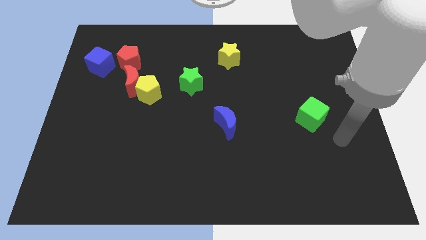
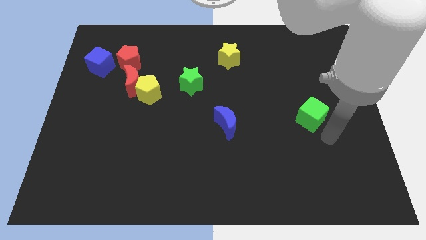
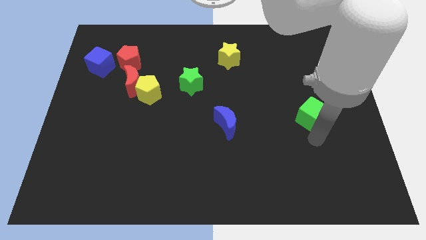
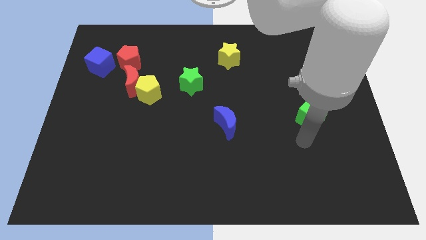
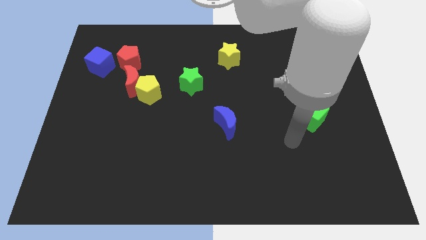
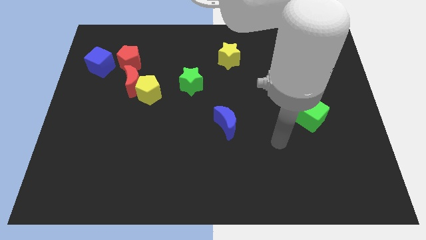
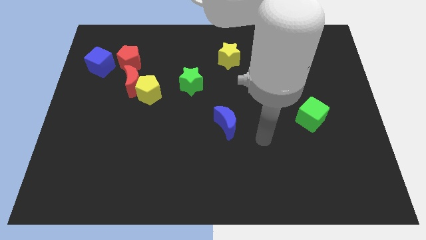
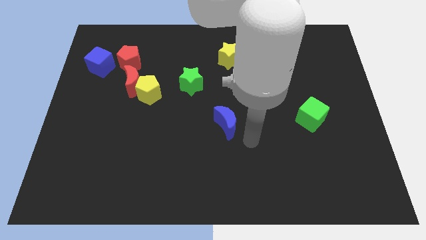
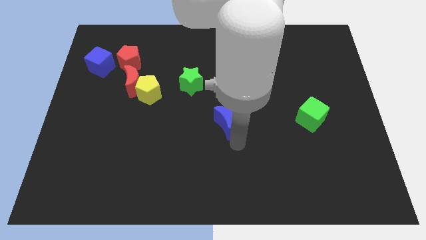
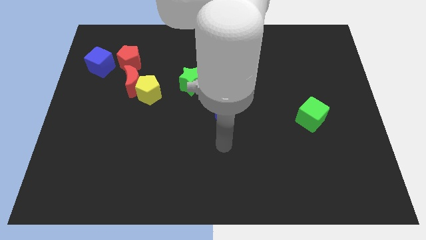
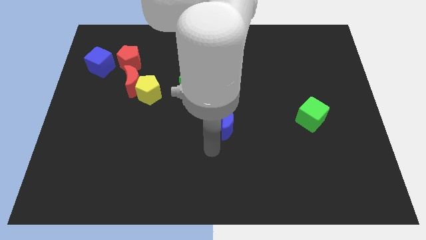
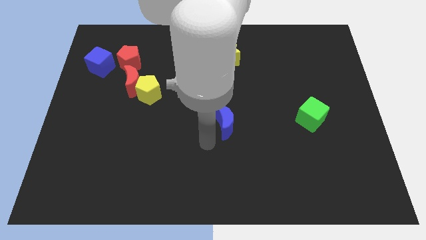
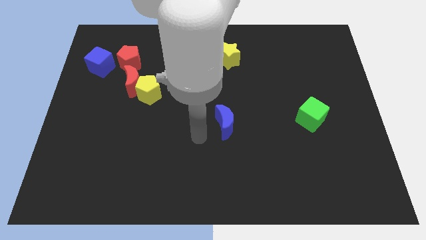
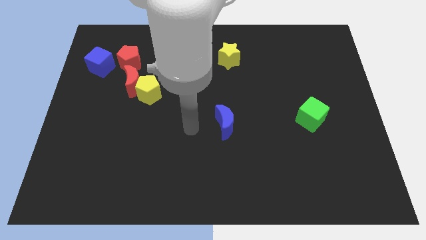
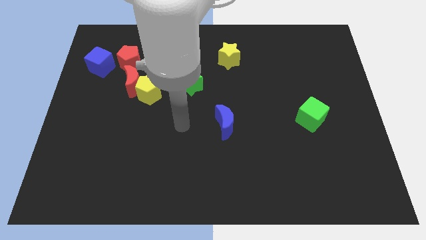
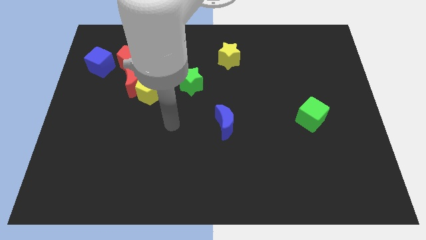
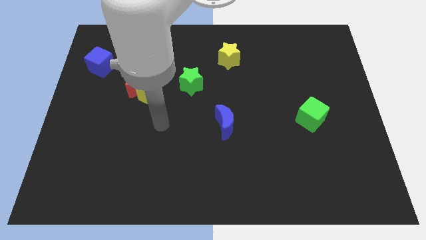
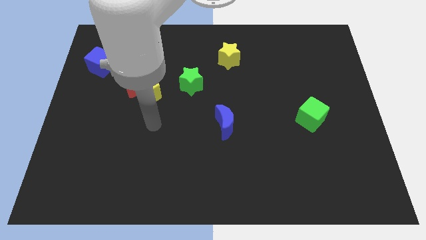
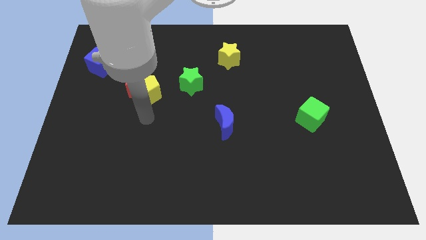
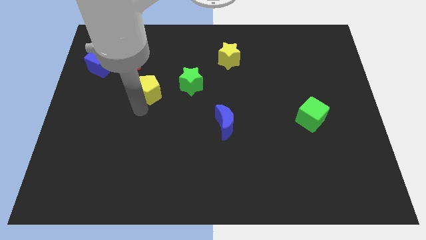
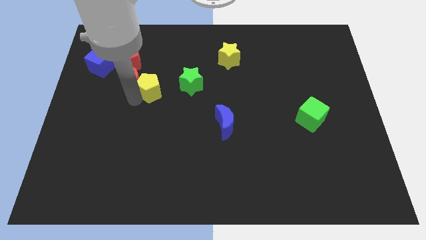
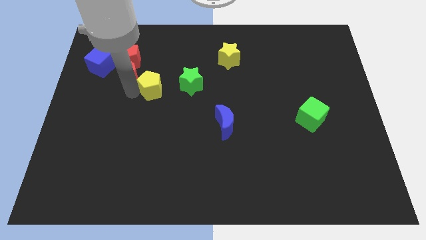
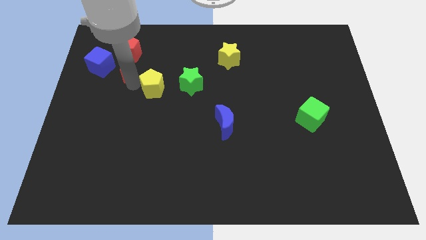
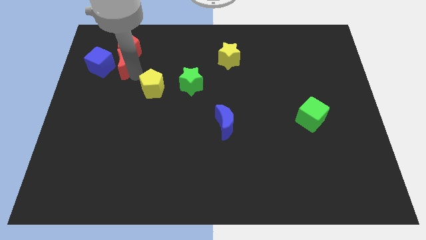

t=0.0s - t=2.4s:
separate the yellow pentagon from the red moon

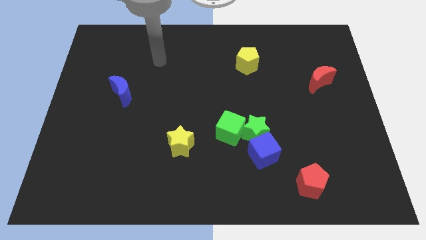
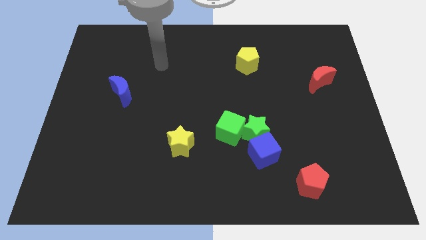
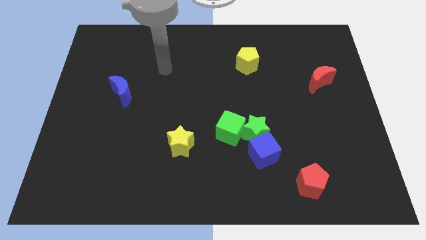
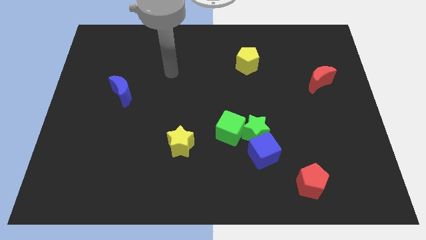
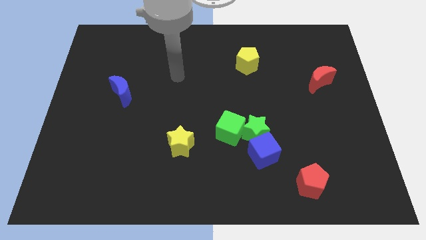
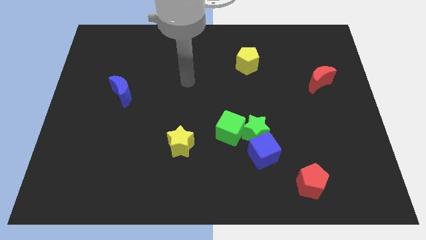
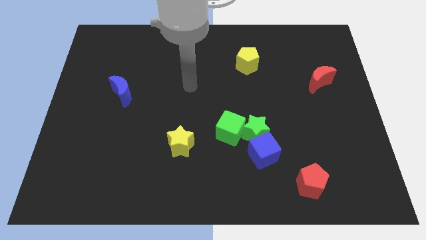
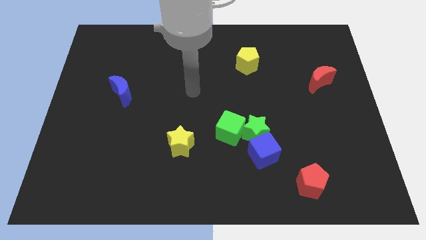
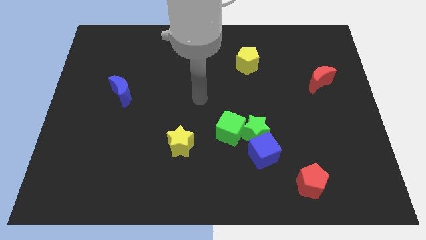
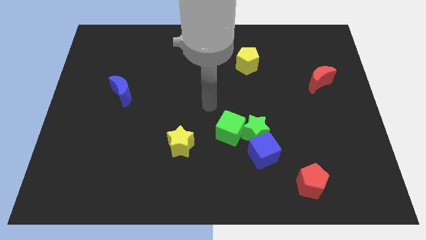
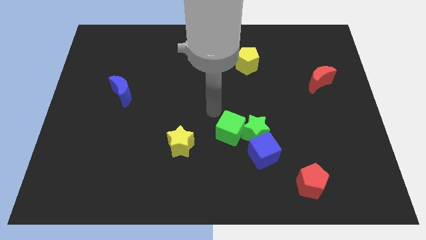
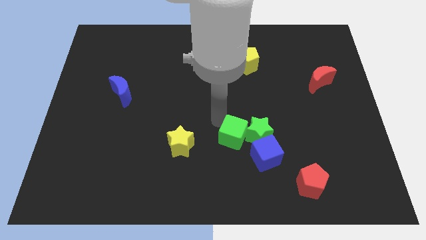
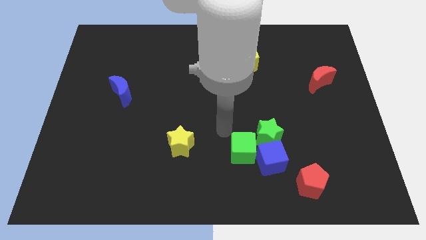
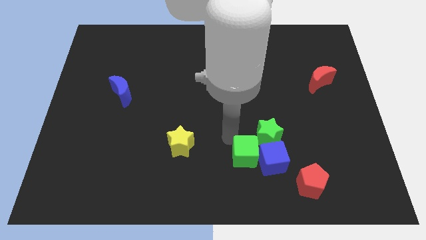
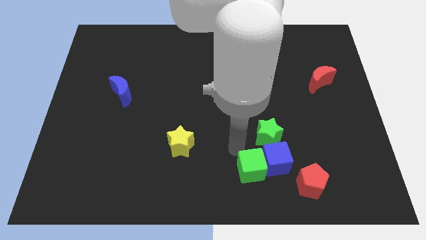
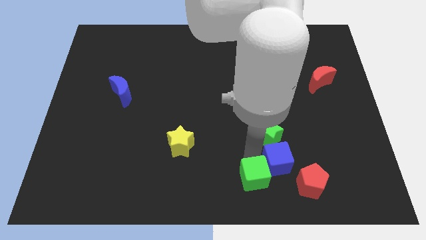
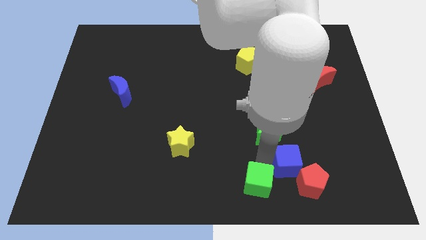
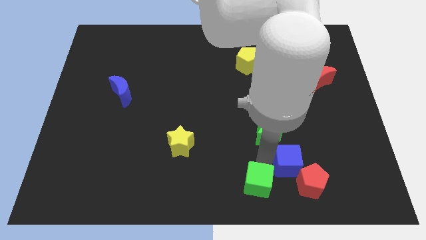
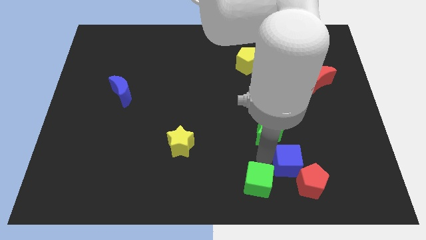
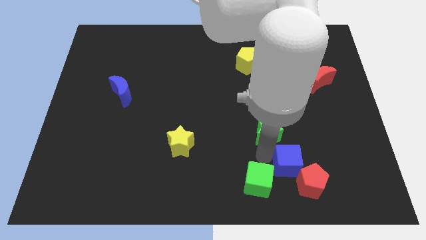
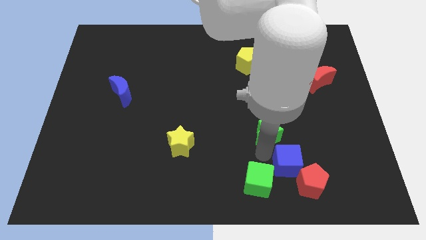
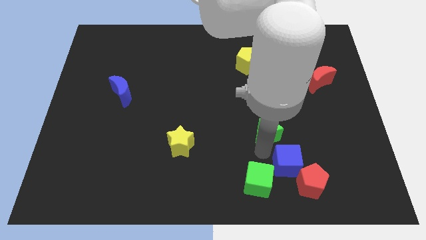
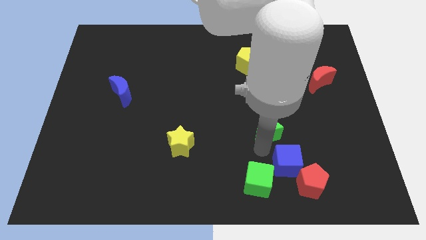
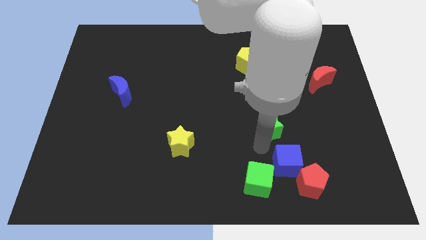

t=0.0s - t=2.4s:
move the green star away from the blue cube and green cube

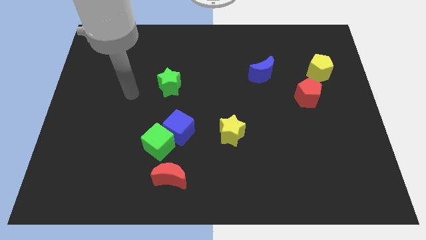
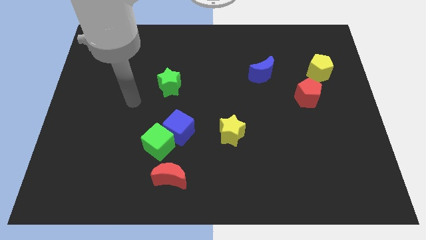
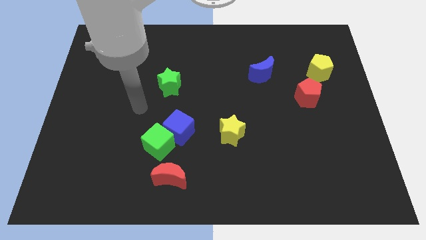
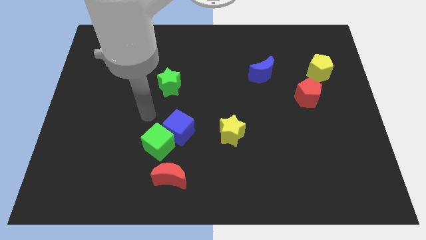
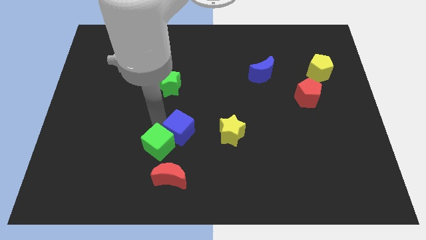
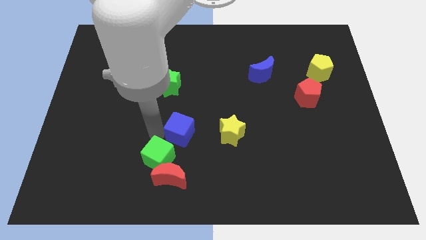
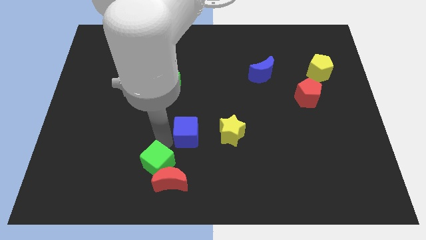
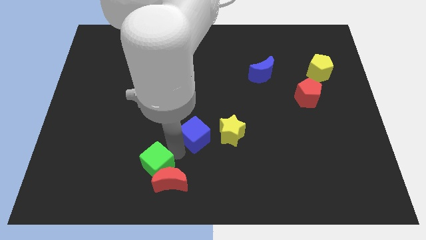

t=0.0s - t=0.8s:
separate the blue cube from the green cube

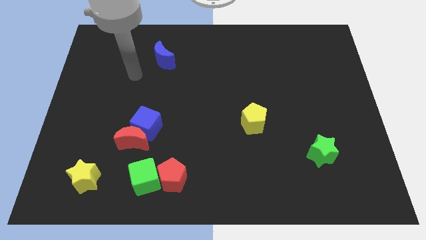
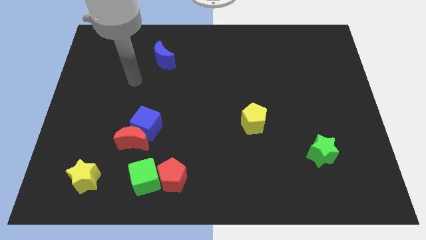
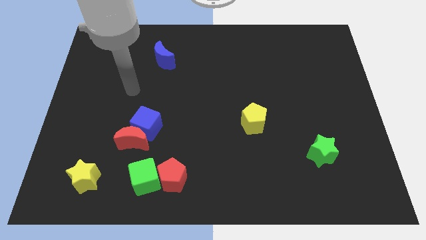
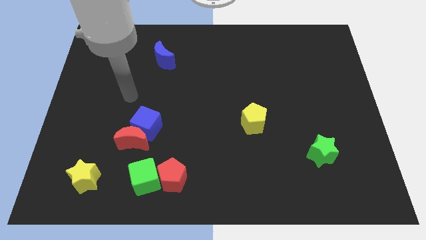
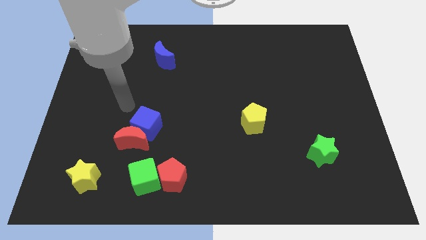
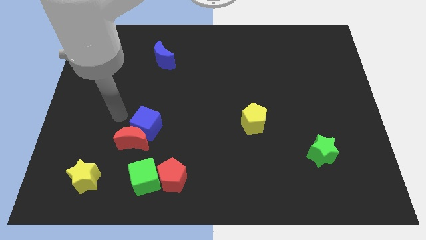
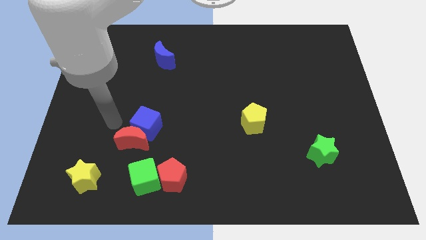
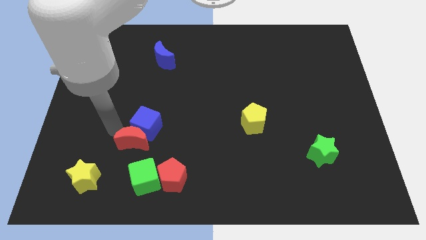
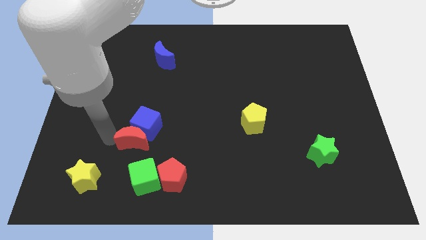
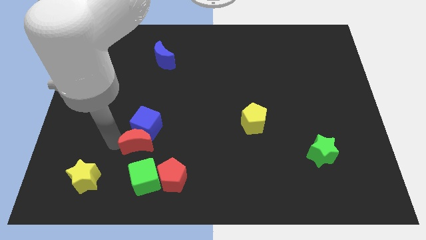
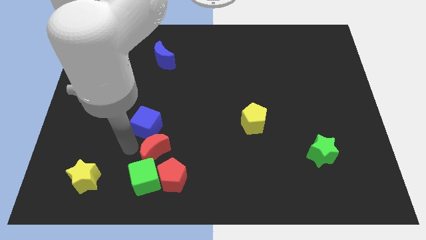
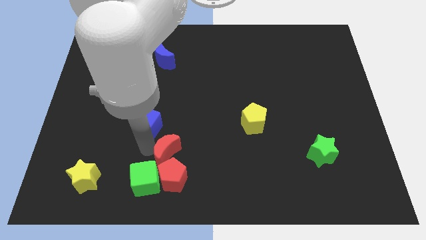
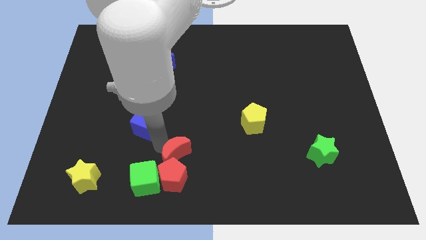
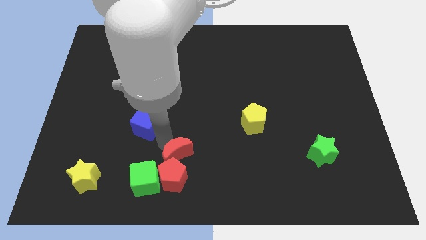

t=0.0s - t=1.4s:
separate the blue cube from the red moon

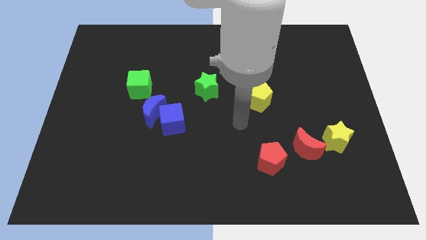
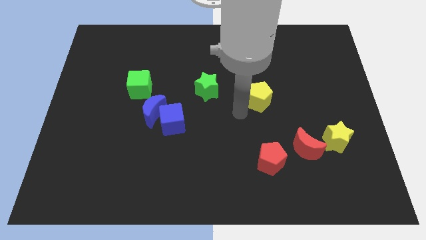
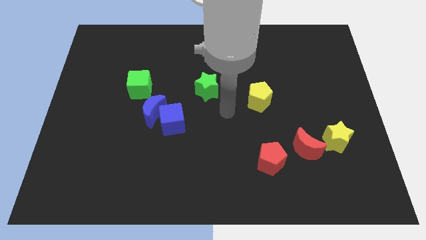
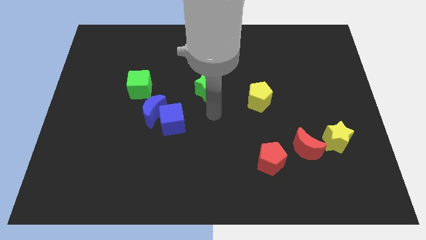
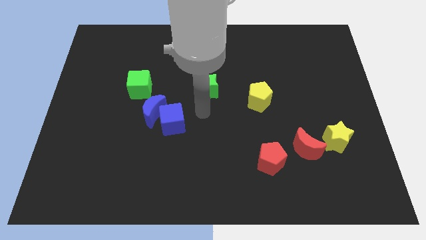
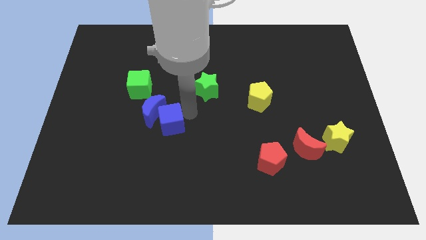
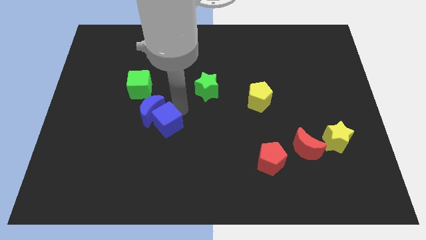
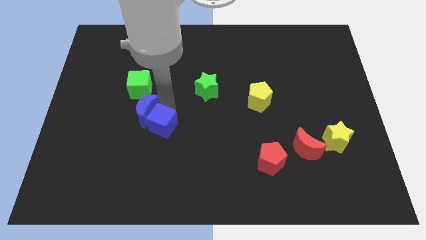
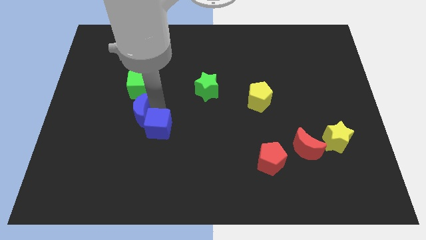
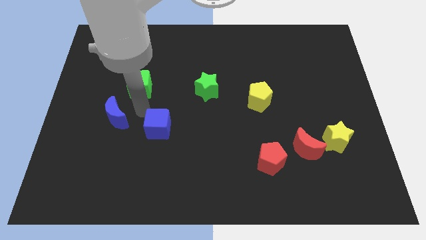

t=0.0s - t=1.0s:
pull the blue cube apart from the blue moon

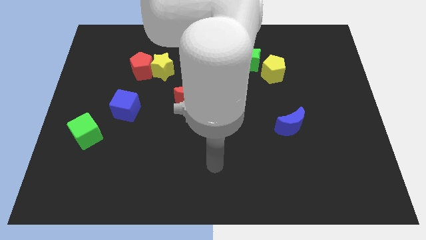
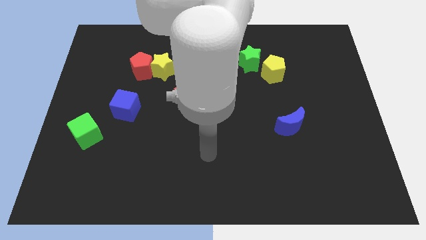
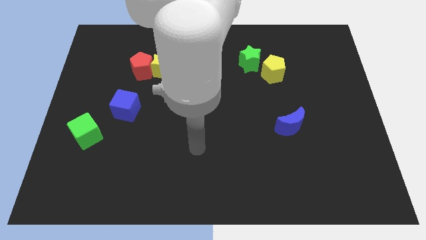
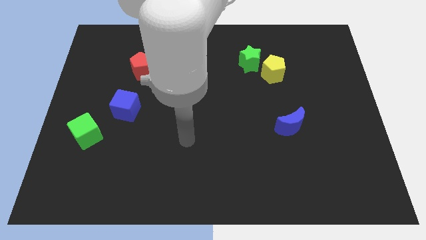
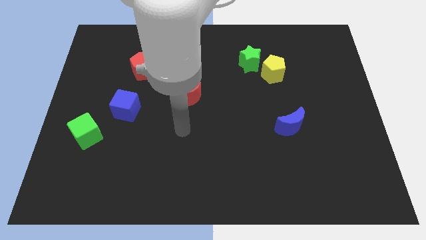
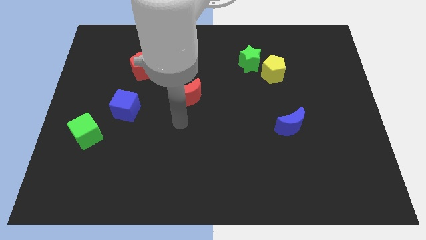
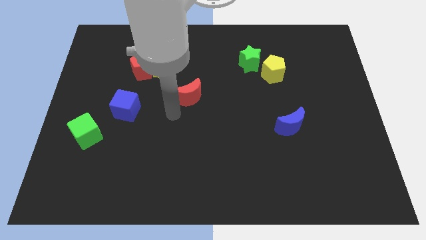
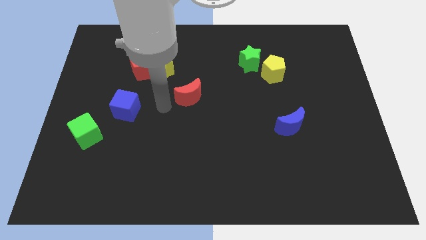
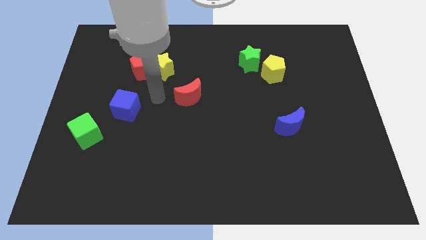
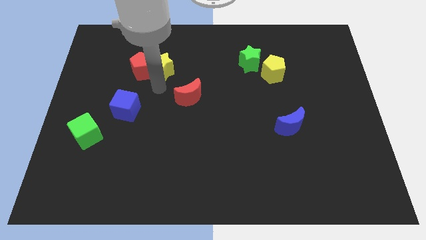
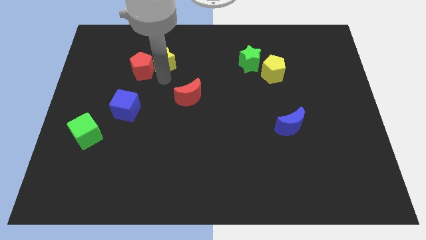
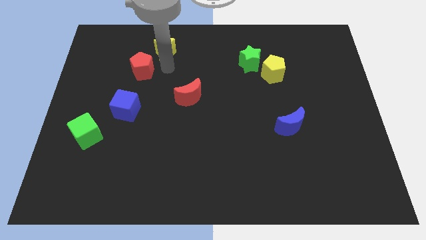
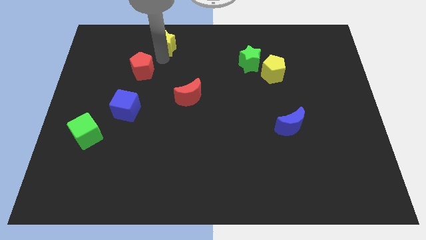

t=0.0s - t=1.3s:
move the red pentagon away from the yellow star
